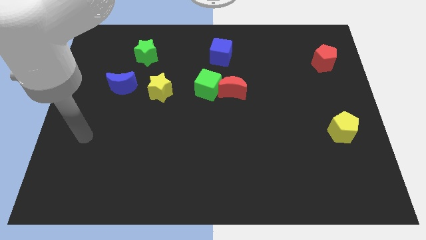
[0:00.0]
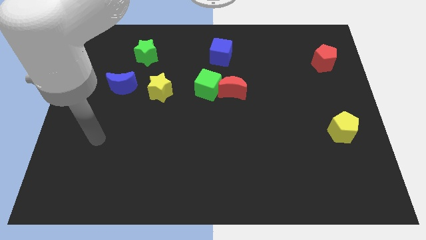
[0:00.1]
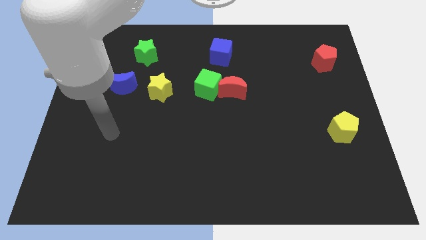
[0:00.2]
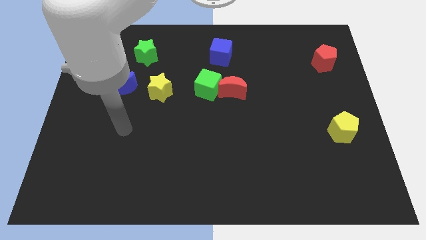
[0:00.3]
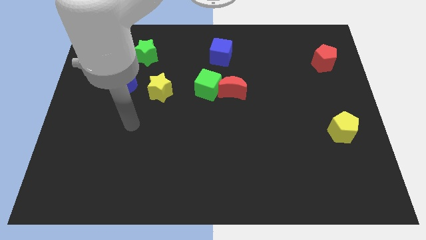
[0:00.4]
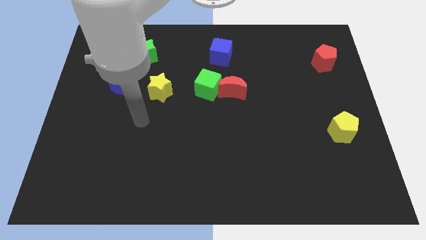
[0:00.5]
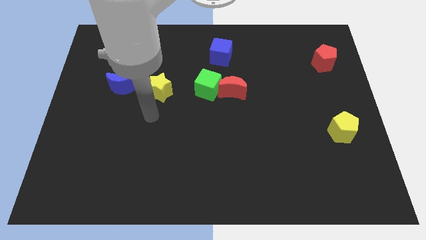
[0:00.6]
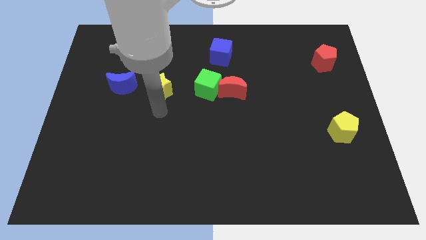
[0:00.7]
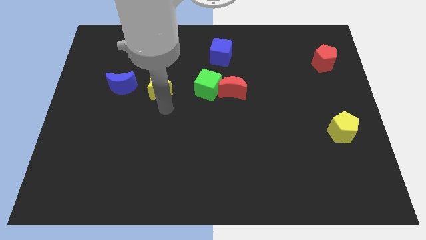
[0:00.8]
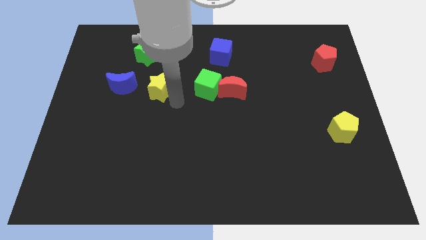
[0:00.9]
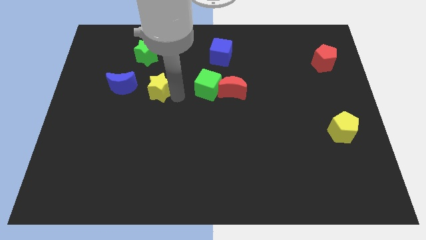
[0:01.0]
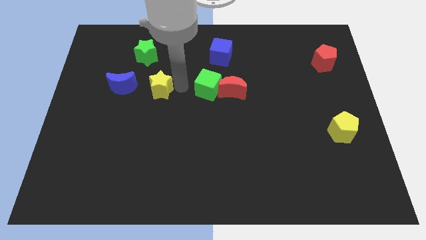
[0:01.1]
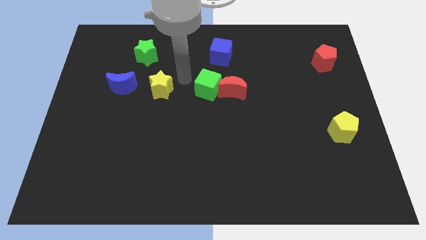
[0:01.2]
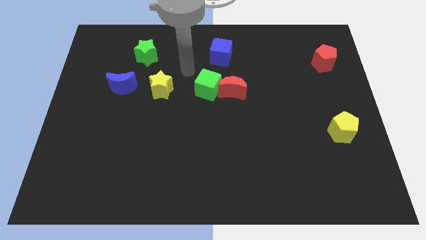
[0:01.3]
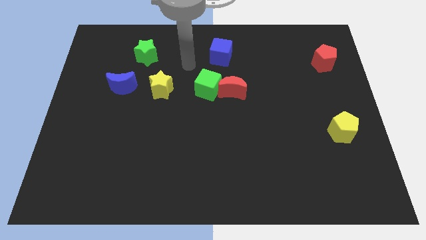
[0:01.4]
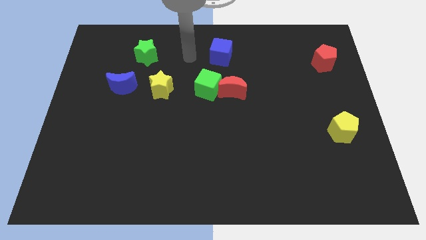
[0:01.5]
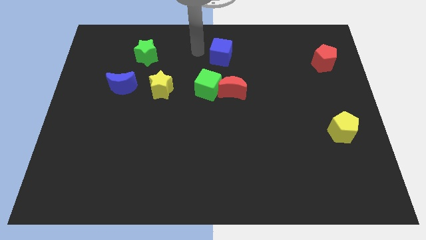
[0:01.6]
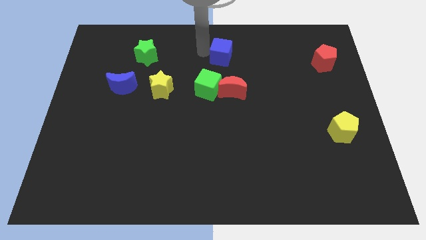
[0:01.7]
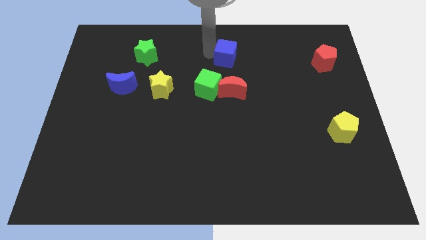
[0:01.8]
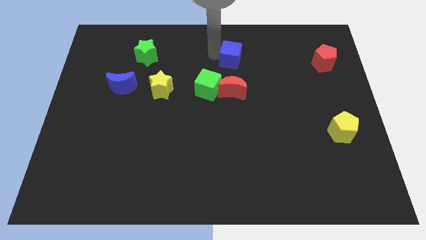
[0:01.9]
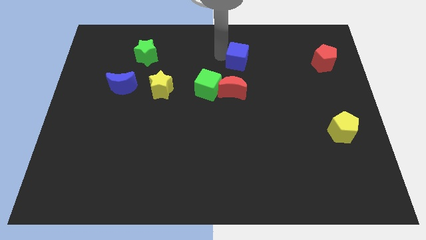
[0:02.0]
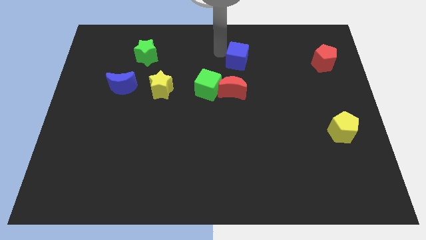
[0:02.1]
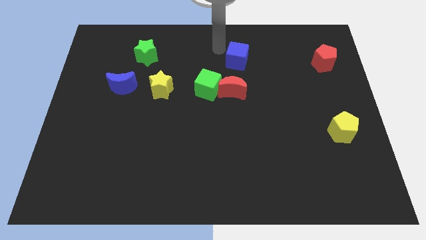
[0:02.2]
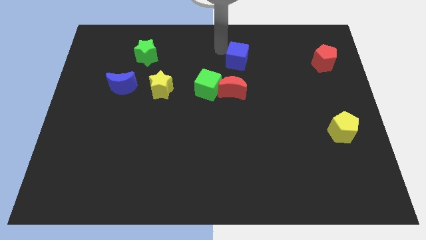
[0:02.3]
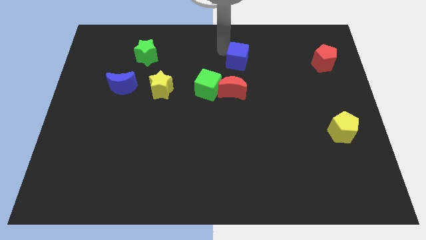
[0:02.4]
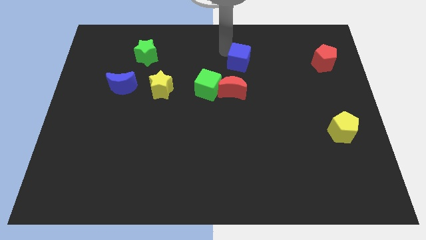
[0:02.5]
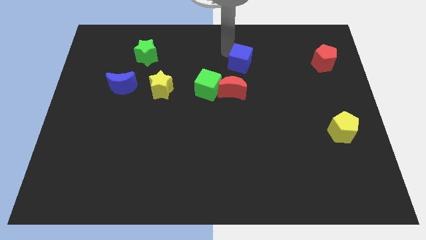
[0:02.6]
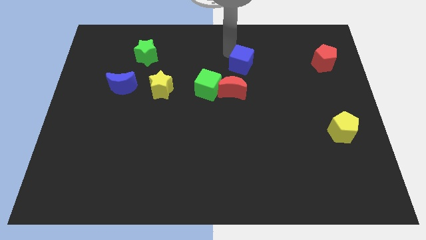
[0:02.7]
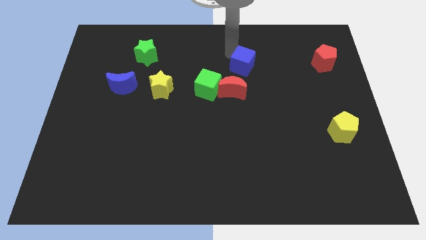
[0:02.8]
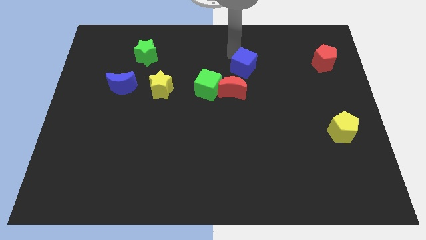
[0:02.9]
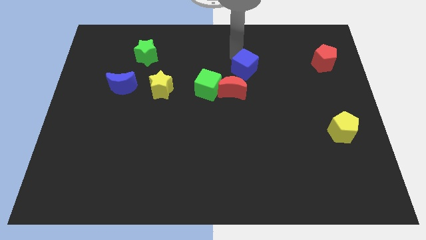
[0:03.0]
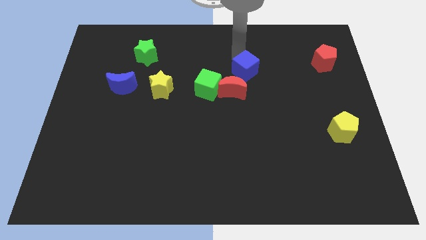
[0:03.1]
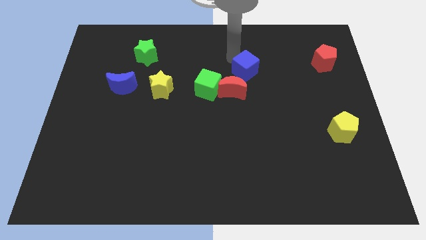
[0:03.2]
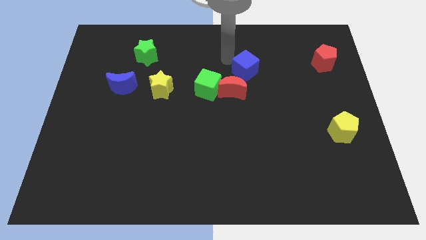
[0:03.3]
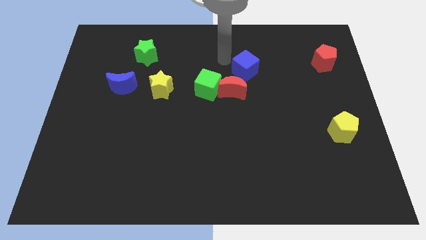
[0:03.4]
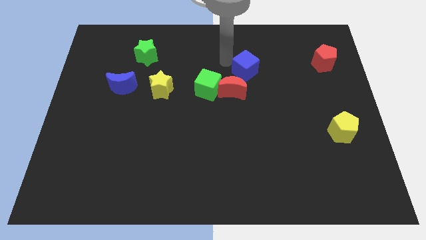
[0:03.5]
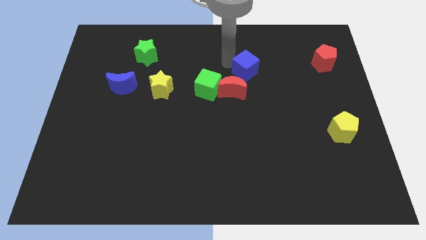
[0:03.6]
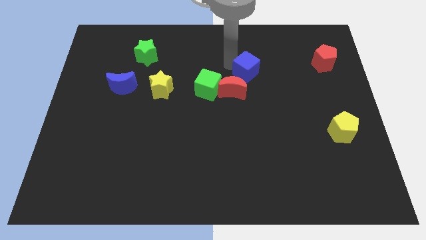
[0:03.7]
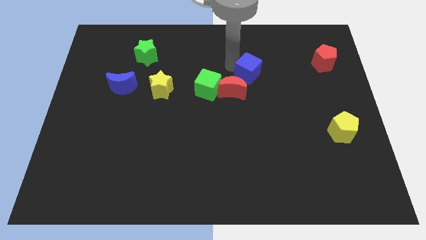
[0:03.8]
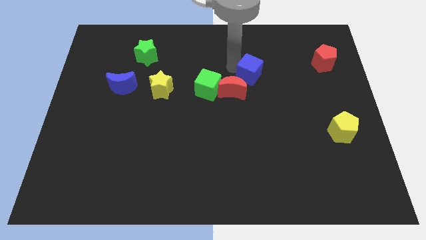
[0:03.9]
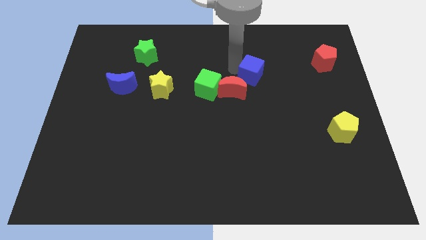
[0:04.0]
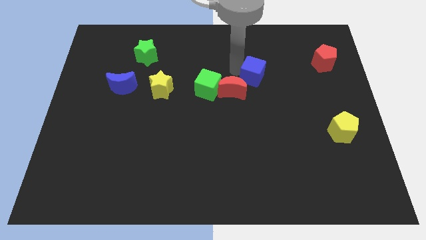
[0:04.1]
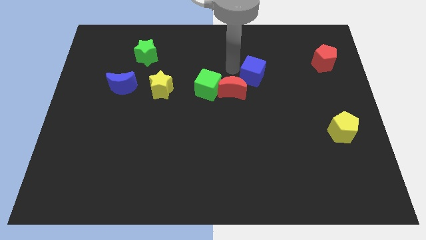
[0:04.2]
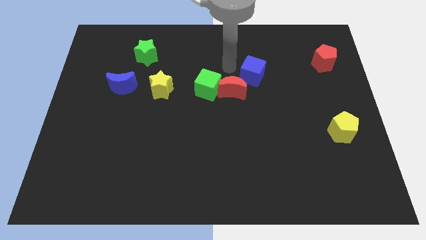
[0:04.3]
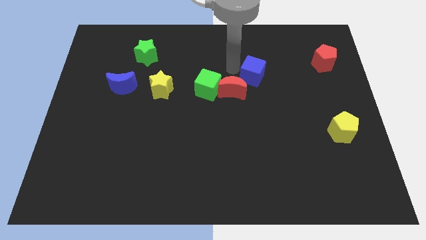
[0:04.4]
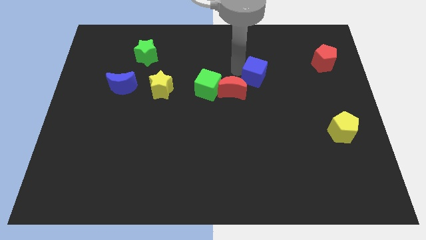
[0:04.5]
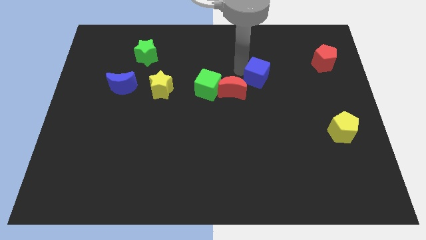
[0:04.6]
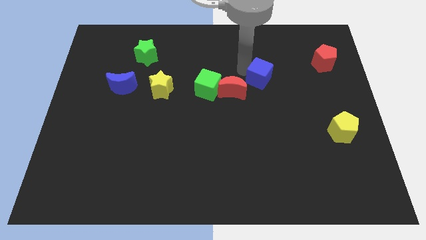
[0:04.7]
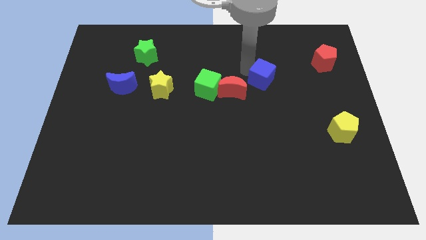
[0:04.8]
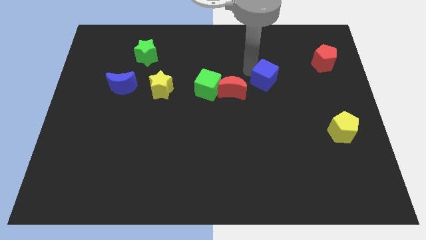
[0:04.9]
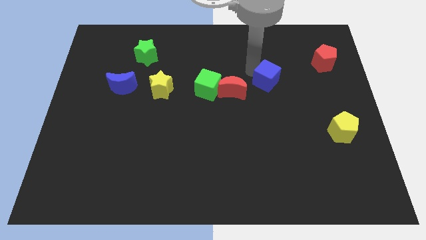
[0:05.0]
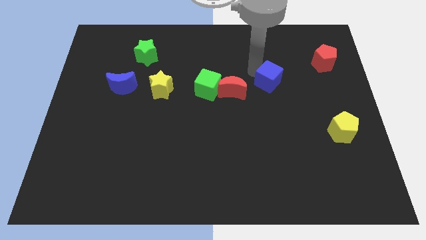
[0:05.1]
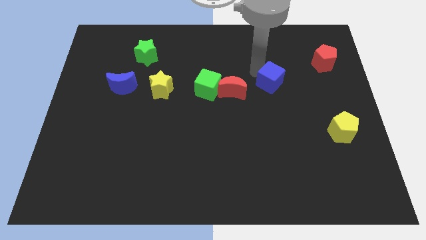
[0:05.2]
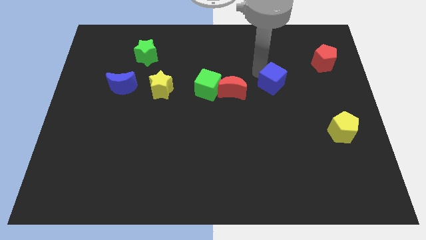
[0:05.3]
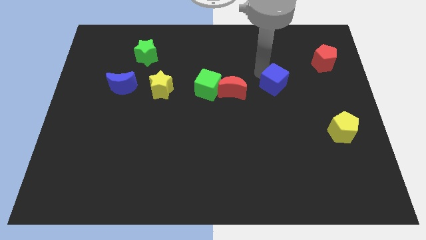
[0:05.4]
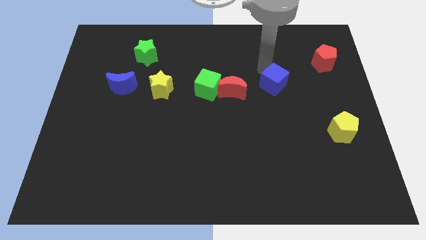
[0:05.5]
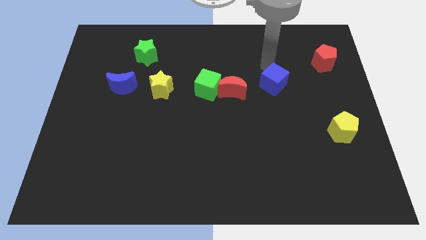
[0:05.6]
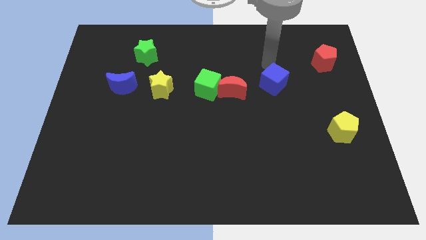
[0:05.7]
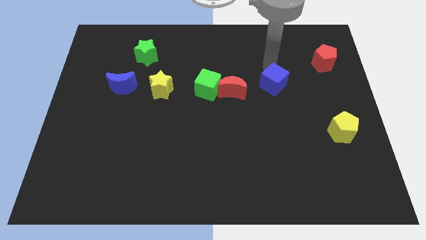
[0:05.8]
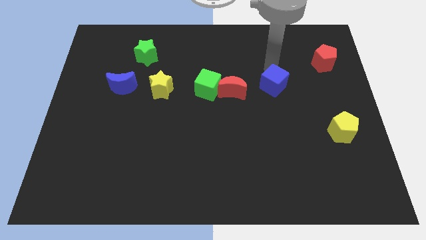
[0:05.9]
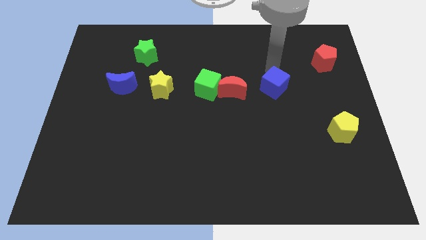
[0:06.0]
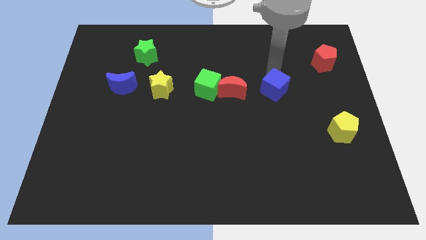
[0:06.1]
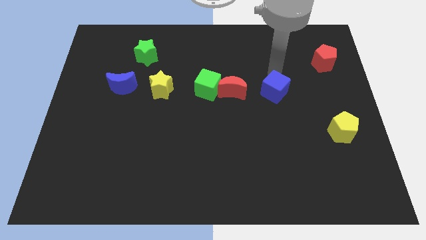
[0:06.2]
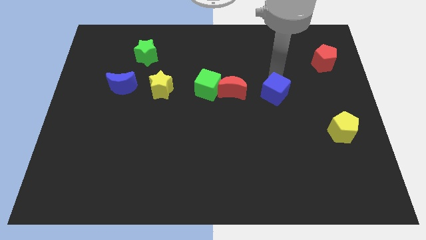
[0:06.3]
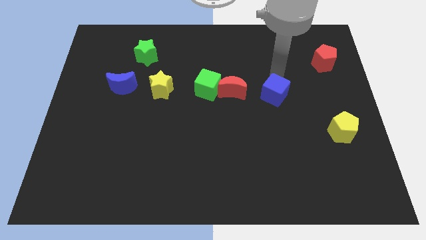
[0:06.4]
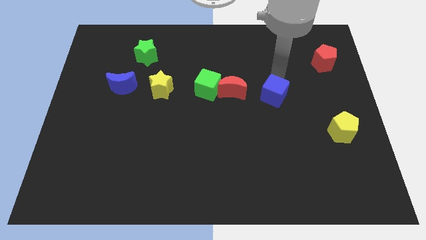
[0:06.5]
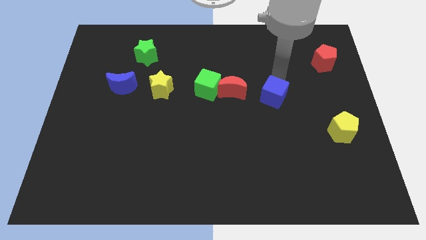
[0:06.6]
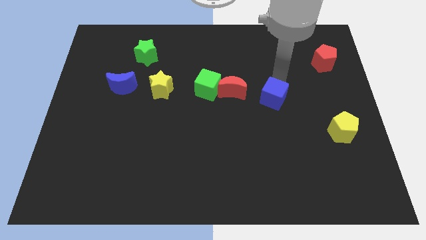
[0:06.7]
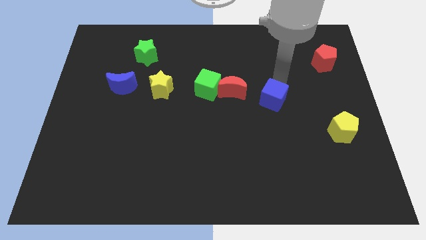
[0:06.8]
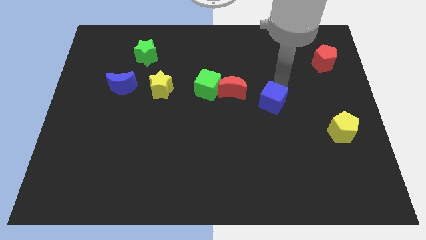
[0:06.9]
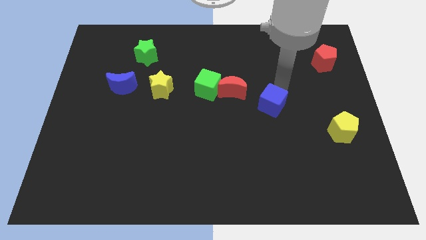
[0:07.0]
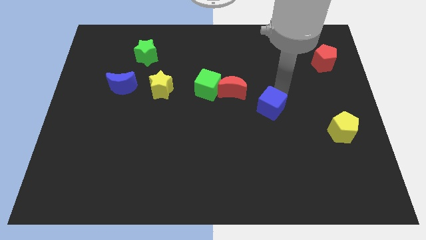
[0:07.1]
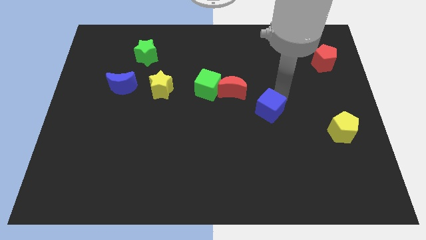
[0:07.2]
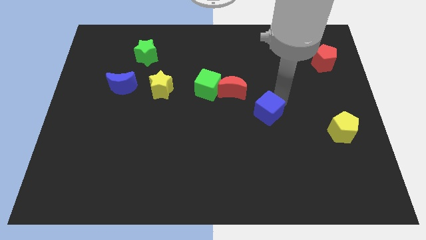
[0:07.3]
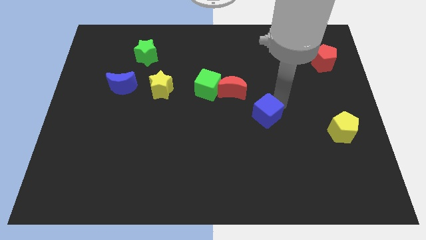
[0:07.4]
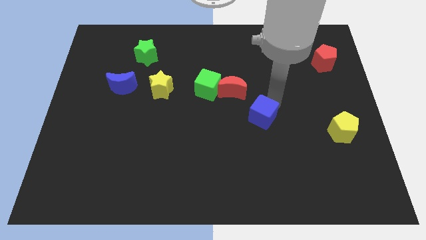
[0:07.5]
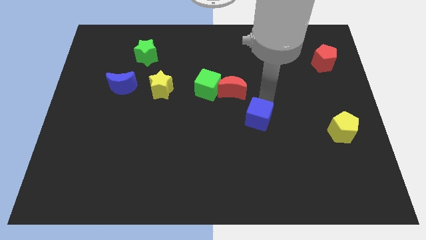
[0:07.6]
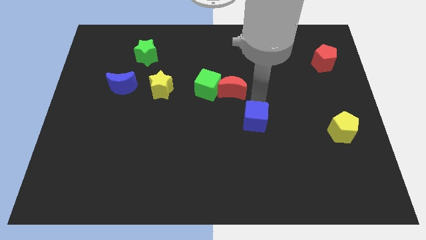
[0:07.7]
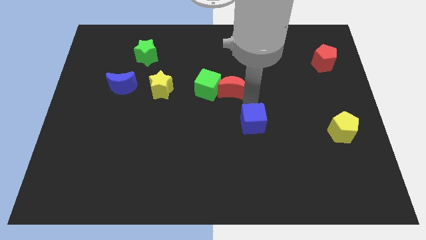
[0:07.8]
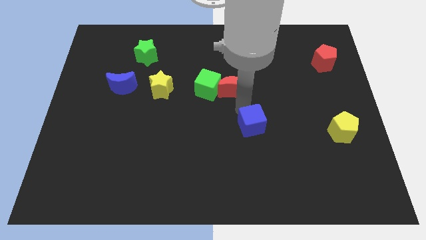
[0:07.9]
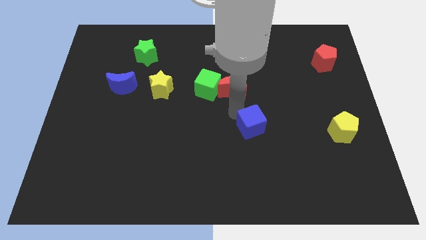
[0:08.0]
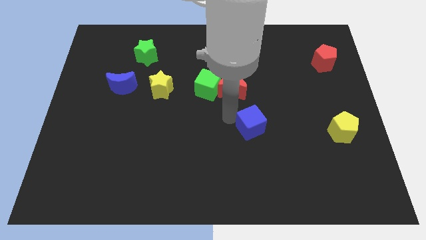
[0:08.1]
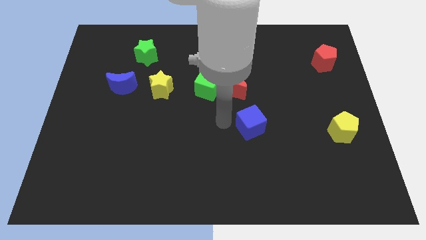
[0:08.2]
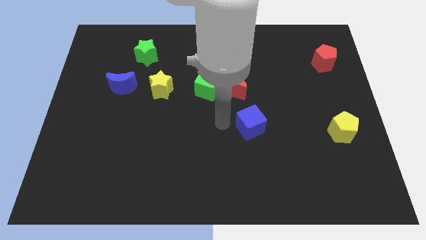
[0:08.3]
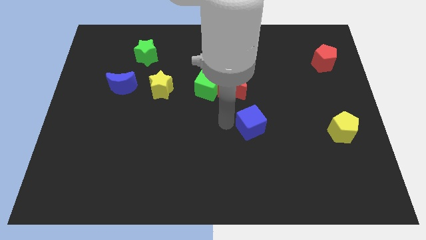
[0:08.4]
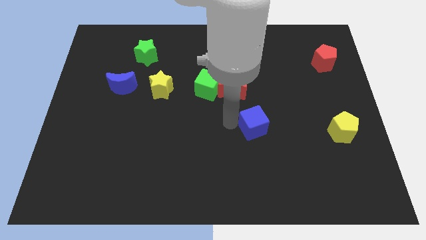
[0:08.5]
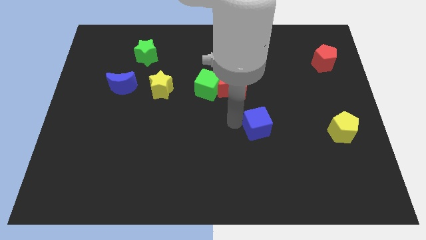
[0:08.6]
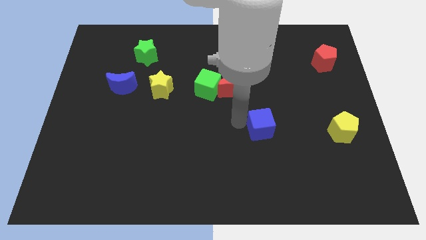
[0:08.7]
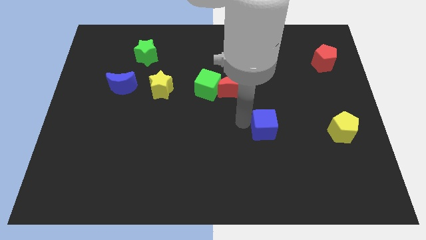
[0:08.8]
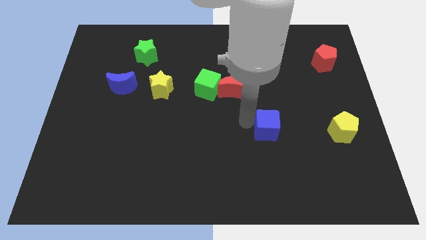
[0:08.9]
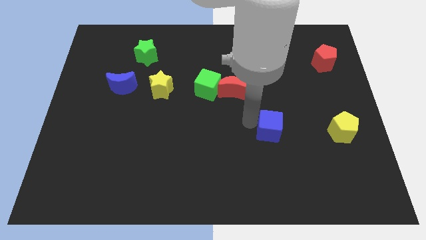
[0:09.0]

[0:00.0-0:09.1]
slide the blue cube to the left of the yellow pentagon

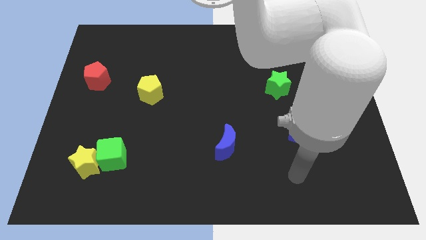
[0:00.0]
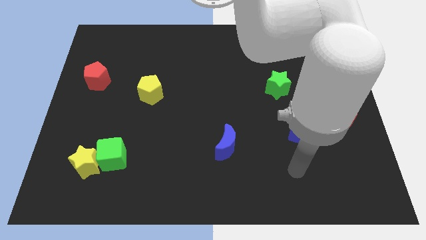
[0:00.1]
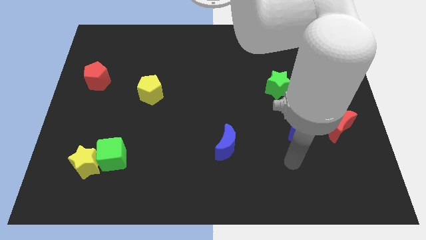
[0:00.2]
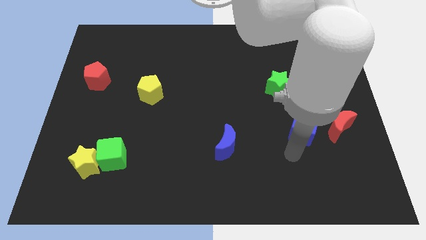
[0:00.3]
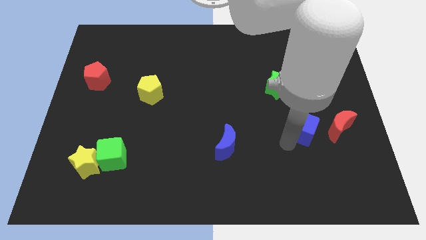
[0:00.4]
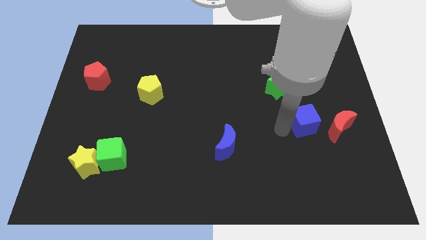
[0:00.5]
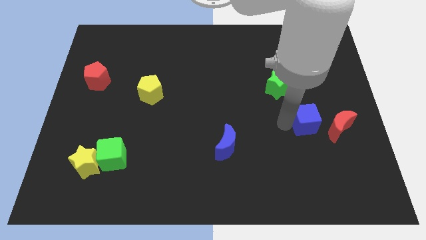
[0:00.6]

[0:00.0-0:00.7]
put the green star to the top left side of the blue cube
